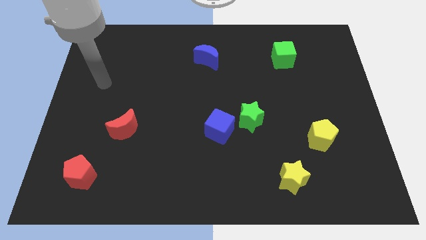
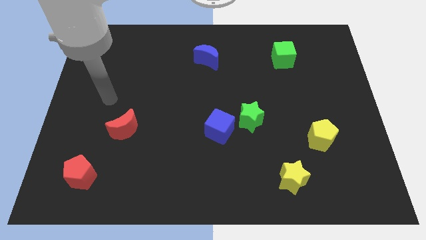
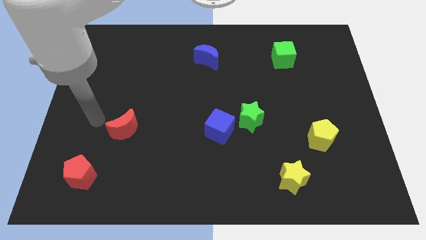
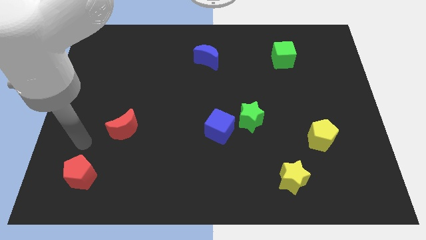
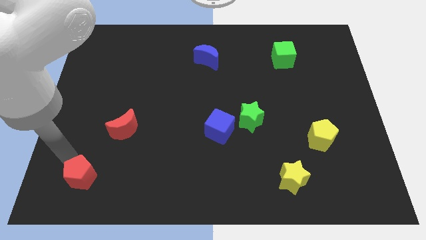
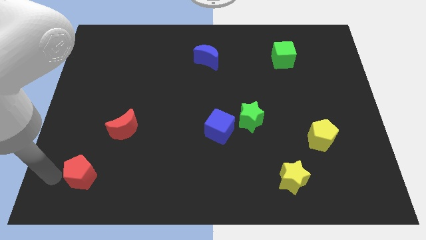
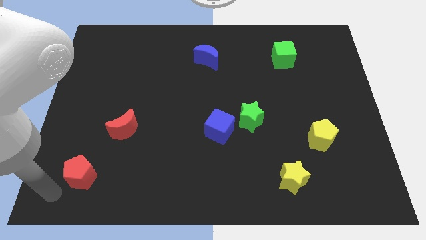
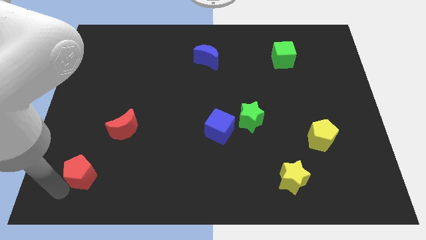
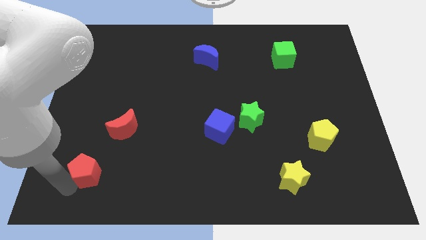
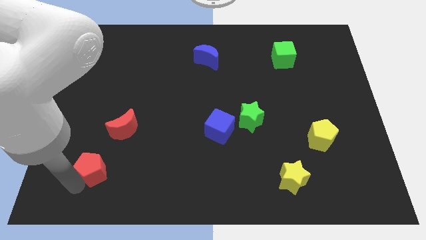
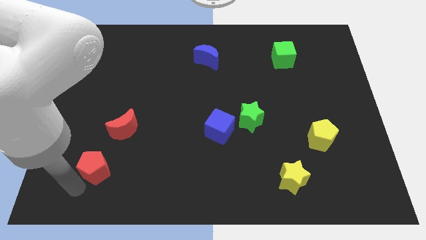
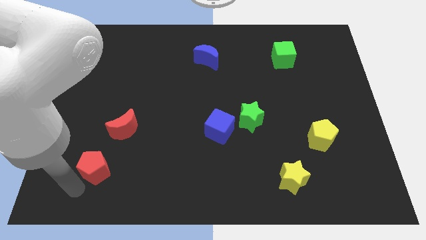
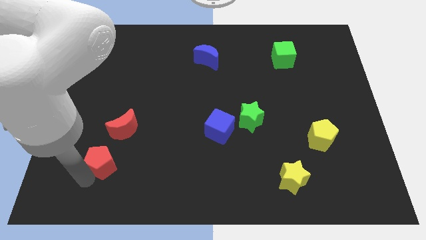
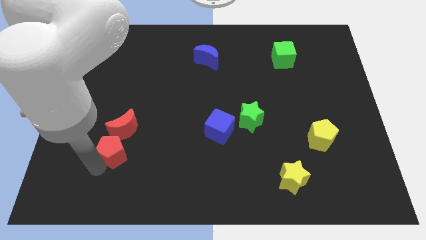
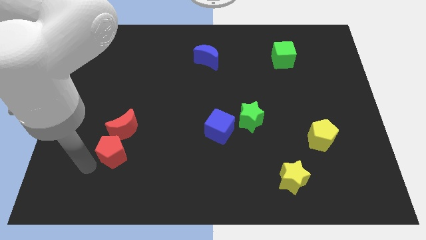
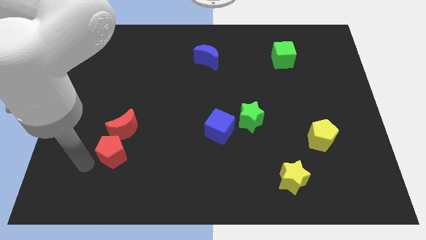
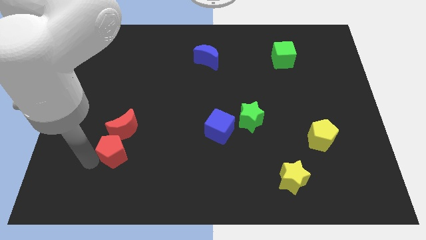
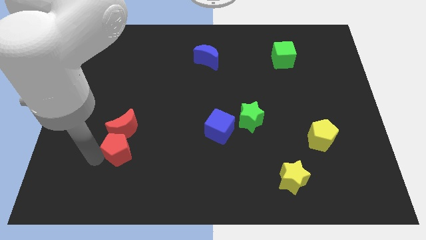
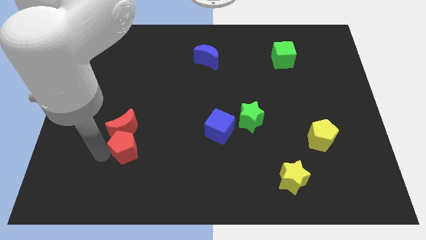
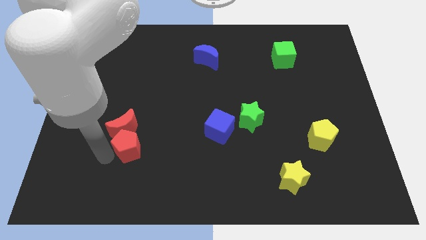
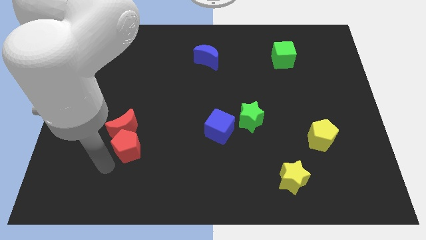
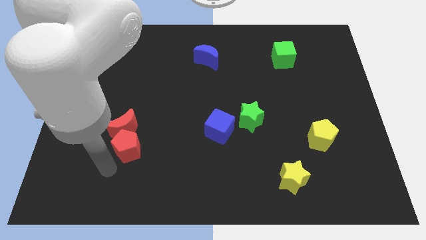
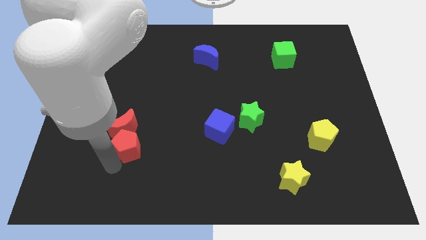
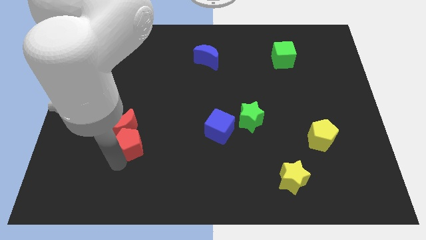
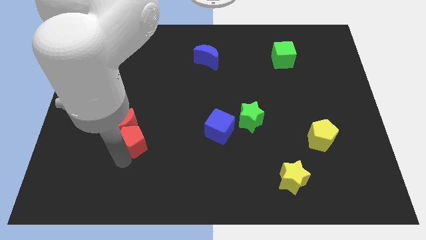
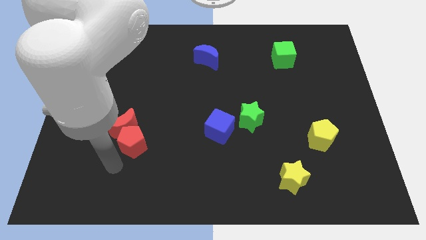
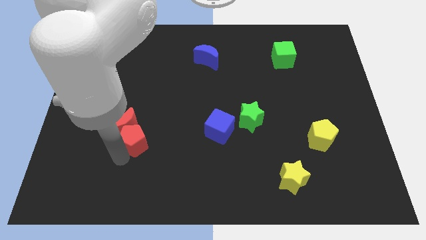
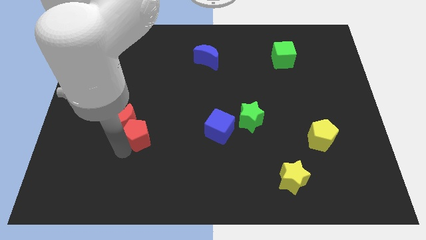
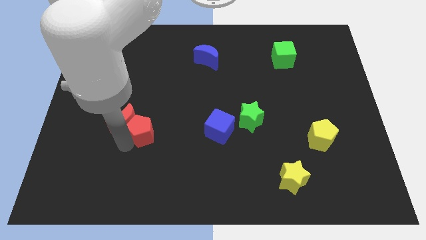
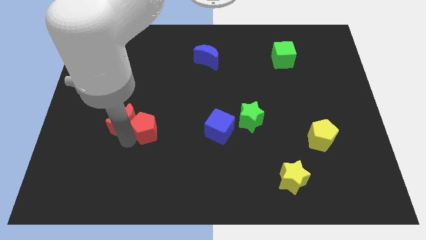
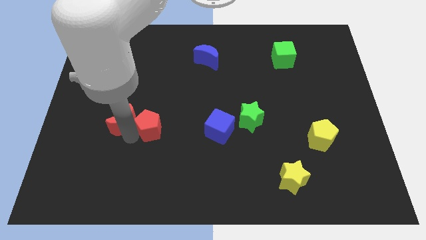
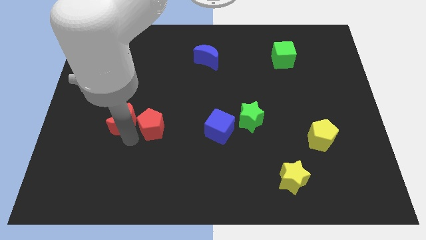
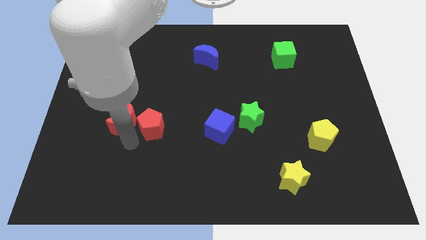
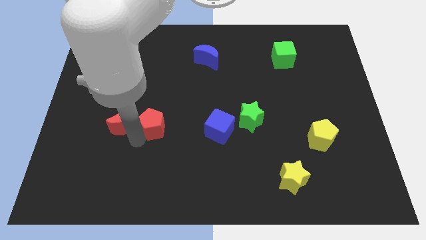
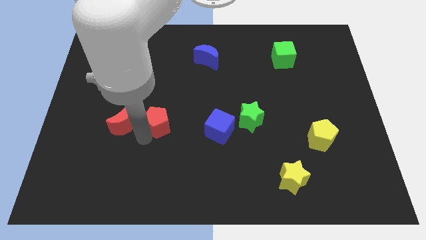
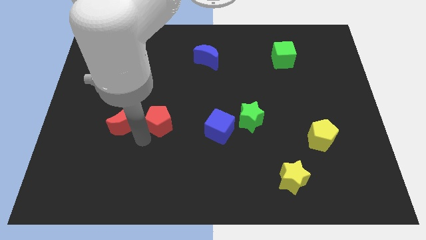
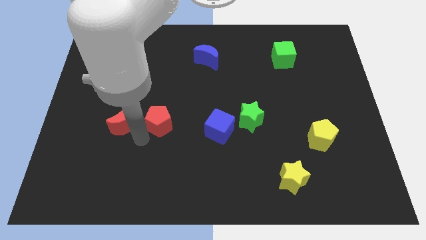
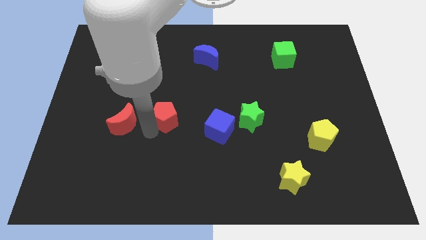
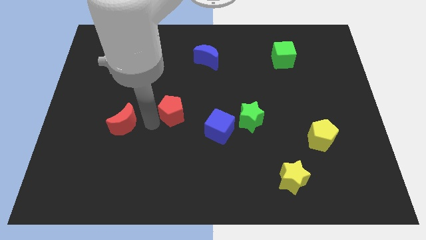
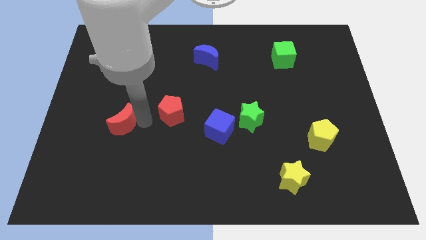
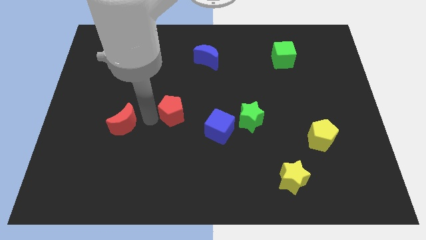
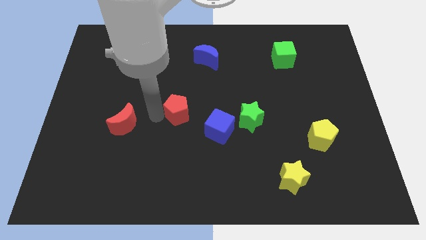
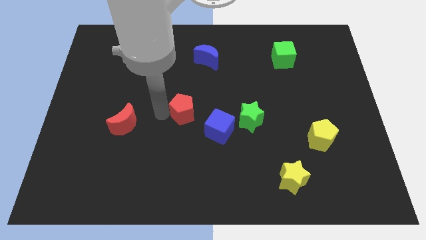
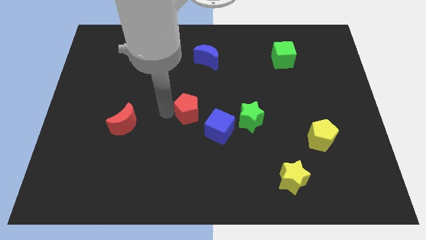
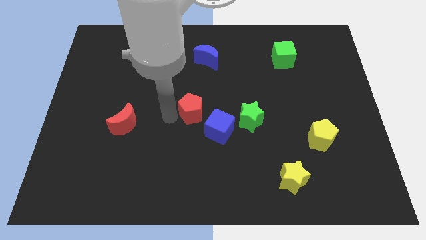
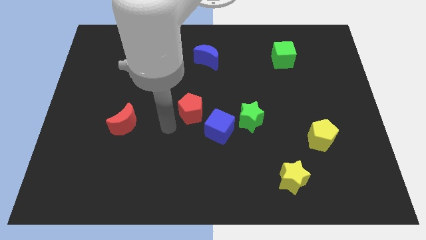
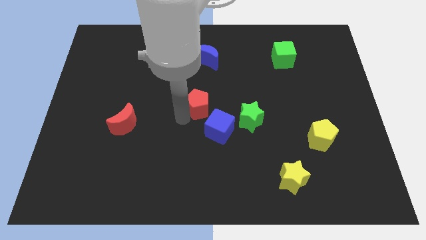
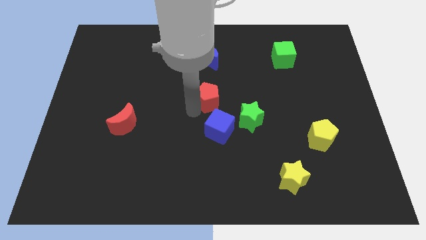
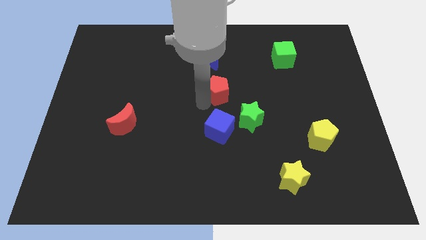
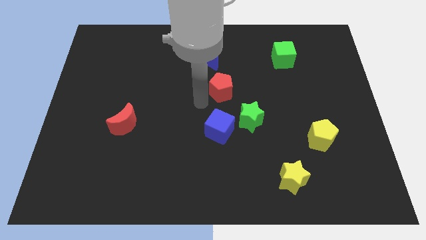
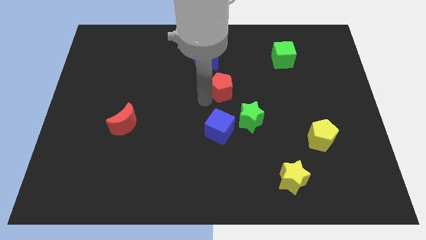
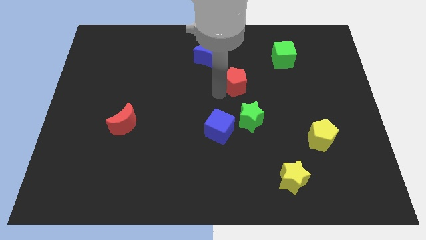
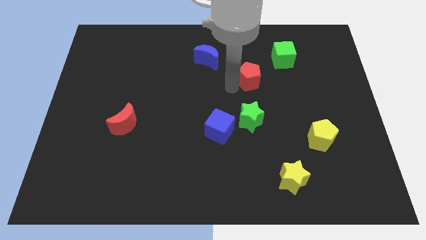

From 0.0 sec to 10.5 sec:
slide the red pentagon to the bottom left of the green cube

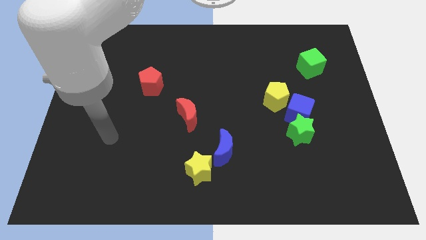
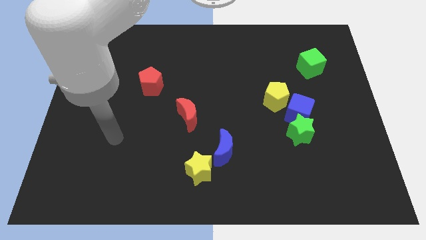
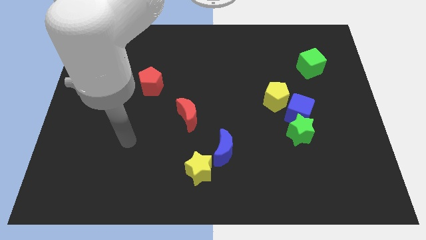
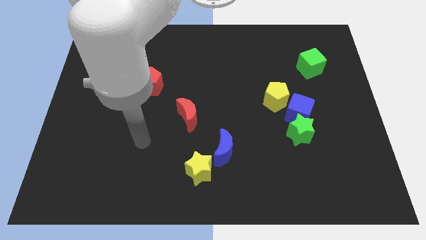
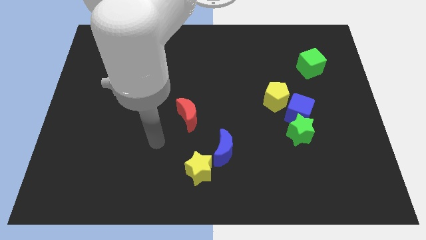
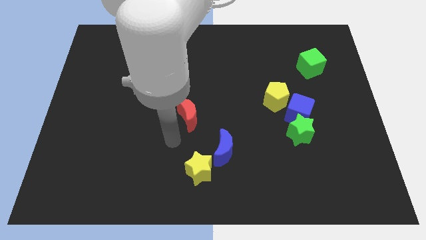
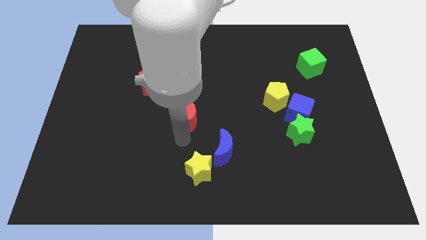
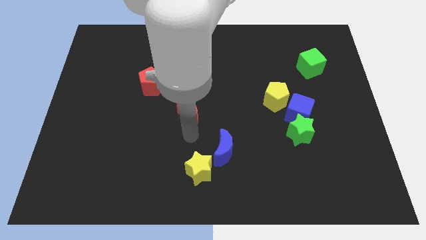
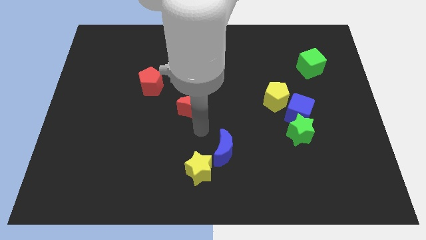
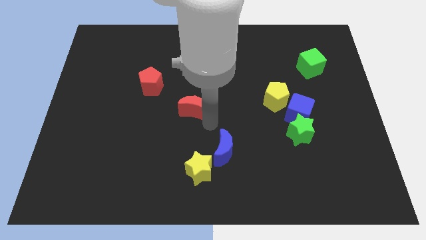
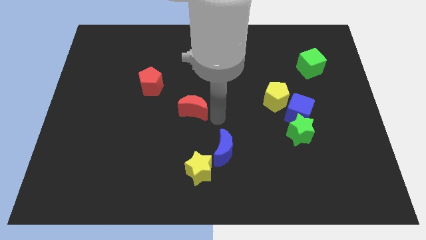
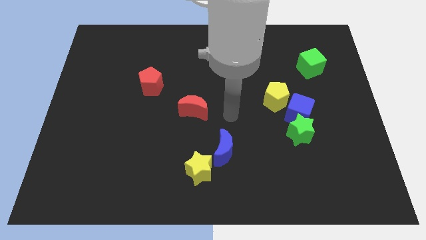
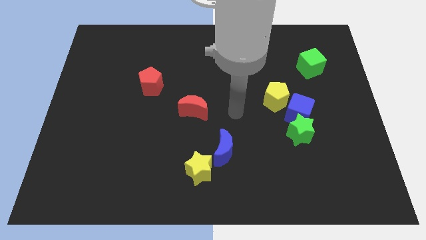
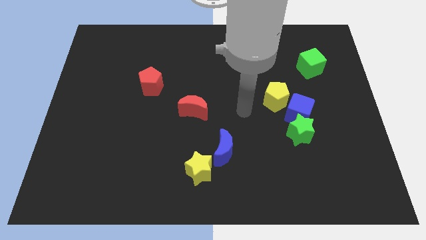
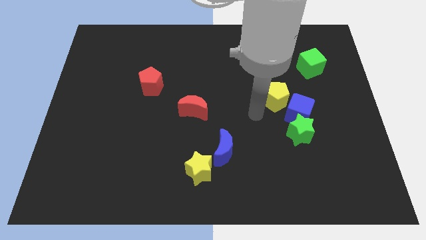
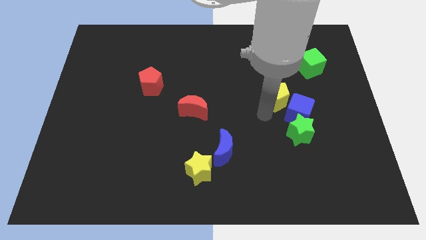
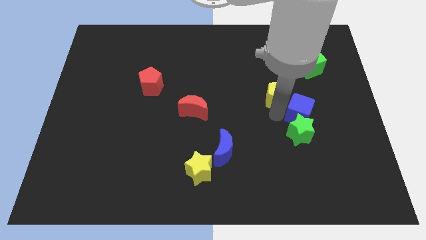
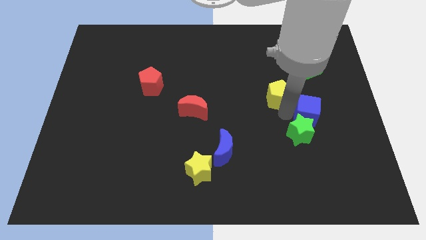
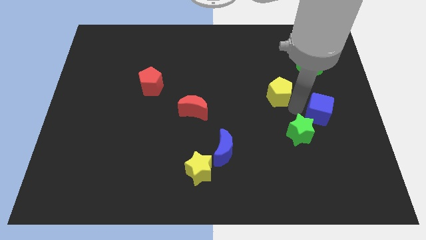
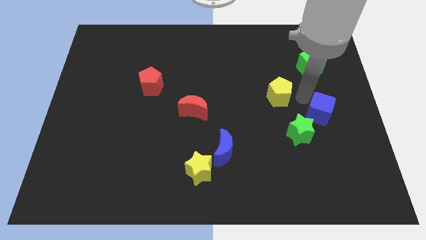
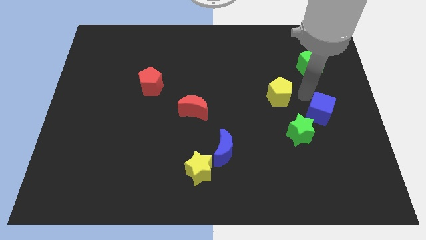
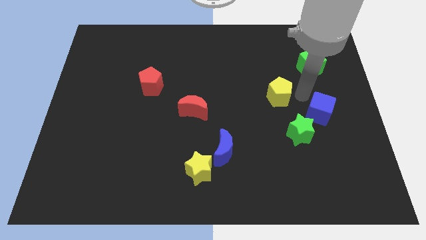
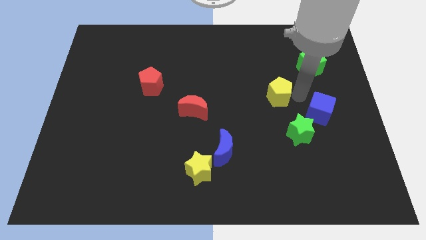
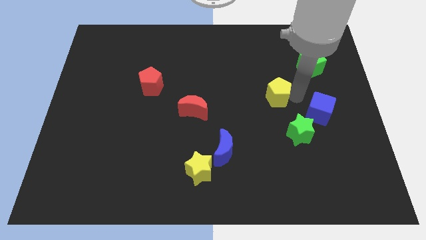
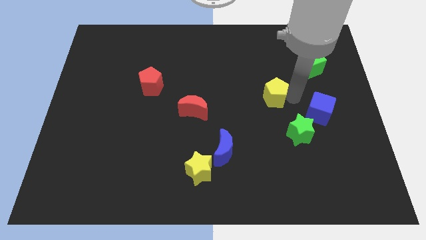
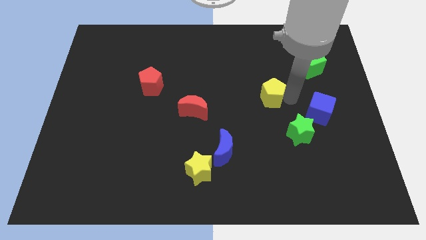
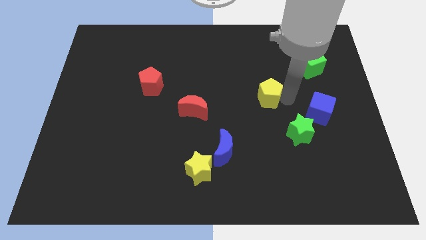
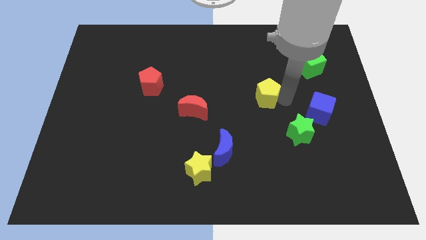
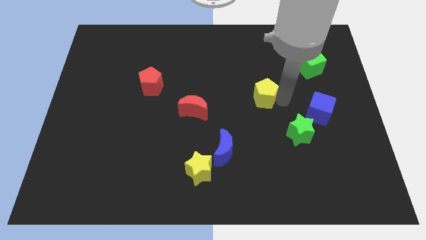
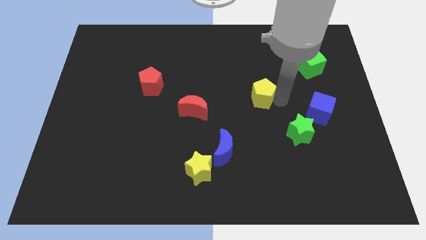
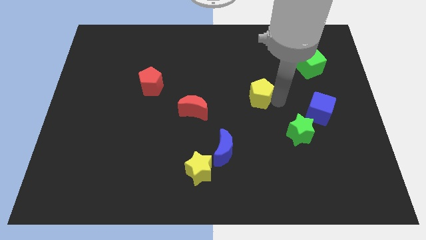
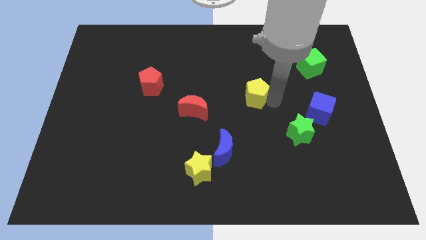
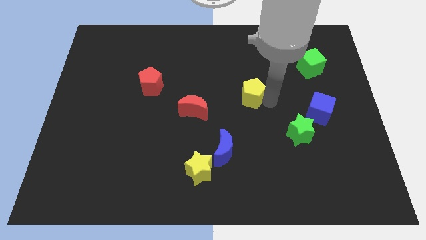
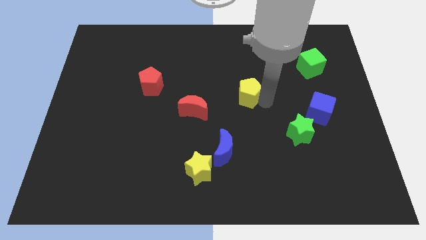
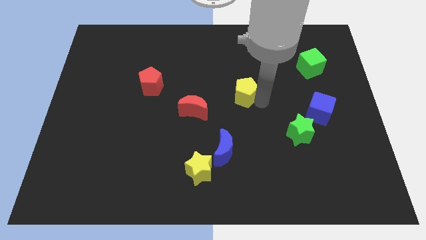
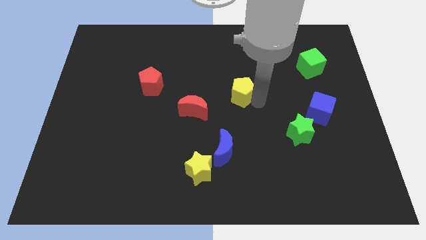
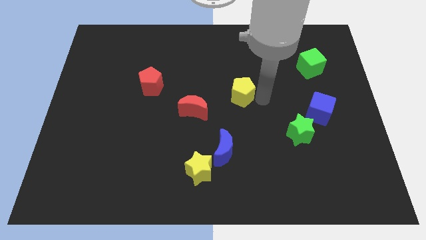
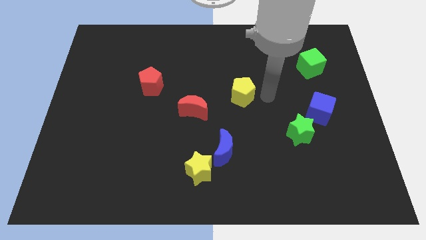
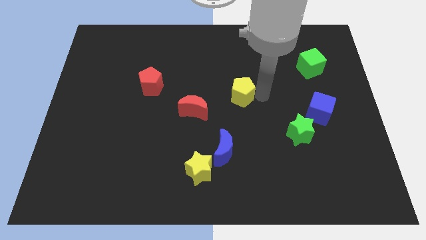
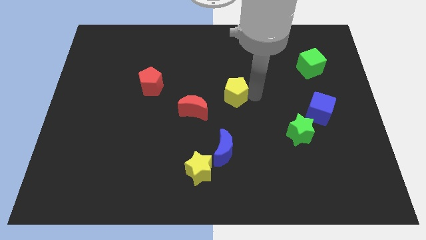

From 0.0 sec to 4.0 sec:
slide the yellow pentagon to the top right of the red moon
